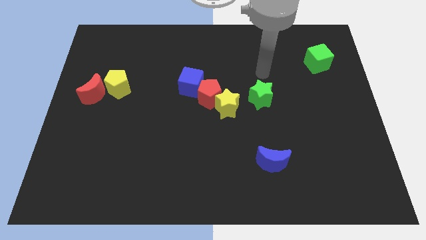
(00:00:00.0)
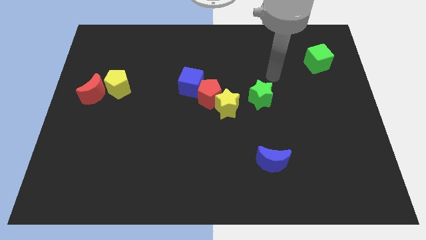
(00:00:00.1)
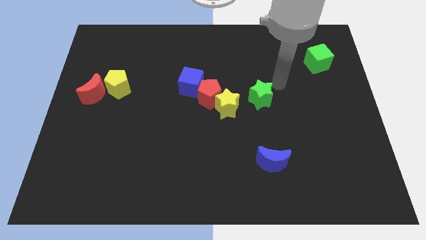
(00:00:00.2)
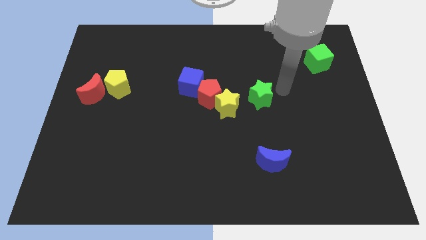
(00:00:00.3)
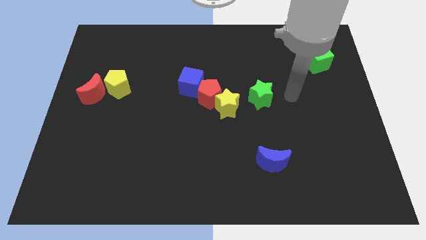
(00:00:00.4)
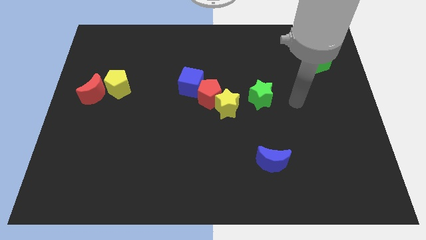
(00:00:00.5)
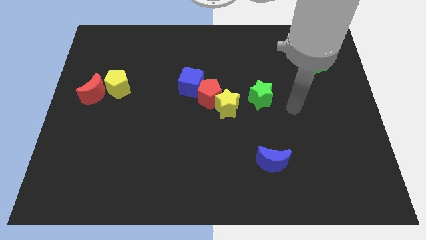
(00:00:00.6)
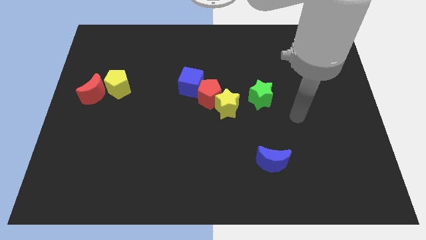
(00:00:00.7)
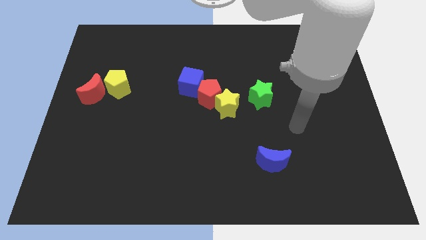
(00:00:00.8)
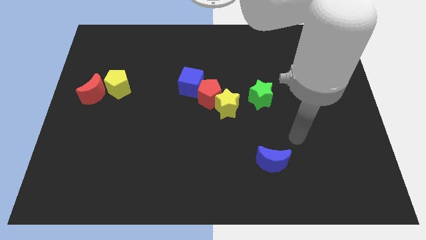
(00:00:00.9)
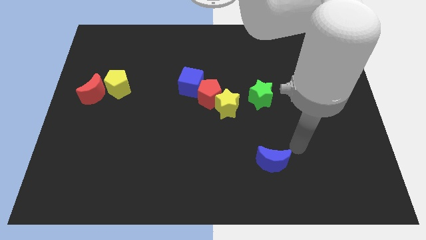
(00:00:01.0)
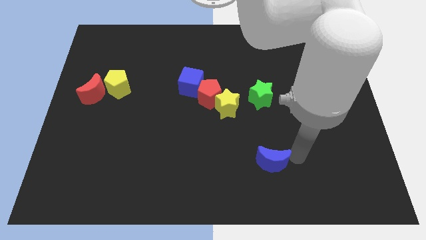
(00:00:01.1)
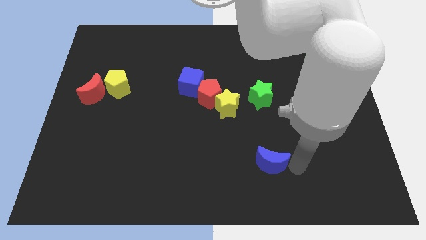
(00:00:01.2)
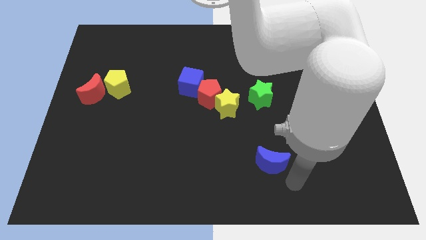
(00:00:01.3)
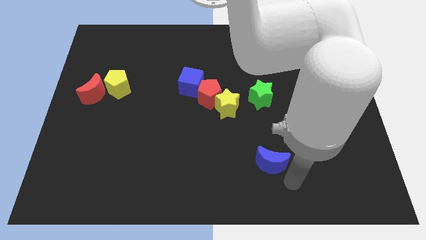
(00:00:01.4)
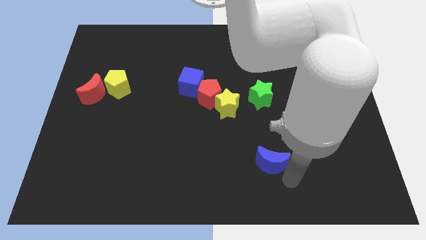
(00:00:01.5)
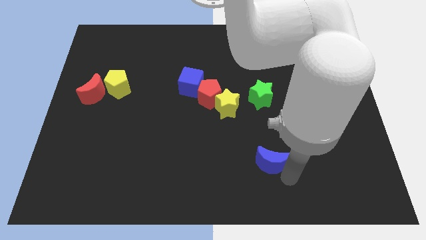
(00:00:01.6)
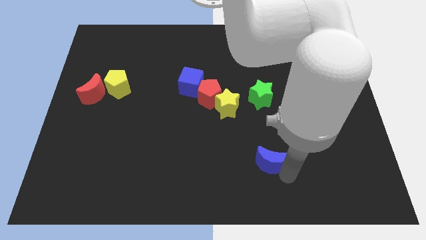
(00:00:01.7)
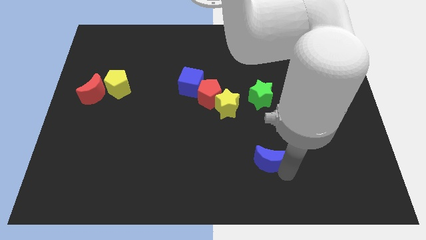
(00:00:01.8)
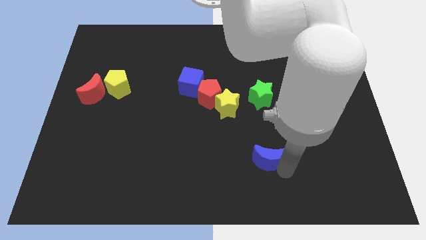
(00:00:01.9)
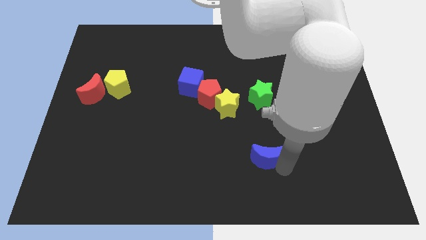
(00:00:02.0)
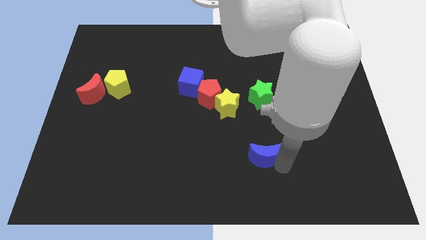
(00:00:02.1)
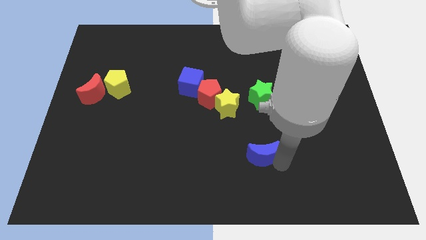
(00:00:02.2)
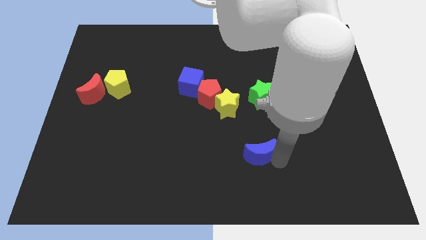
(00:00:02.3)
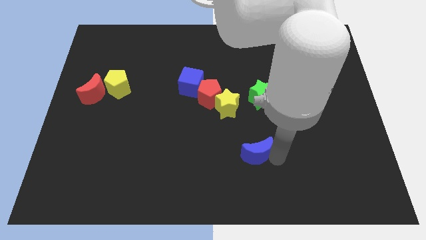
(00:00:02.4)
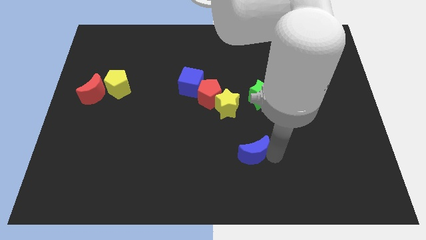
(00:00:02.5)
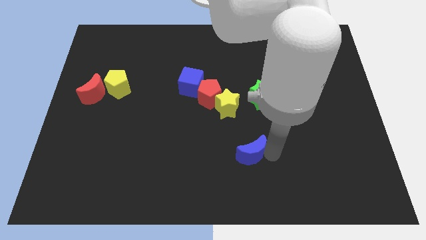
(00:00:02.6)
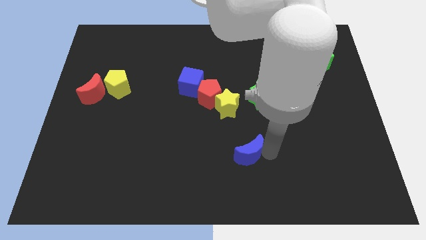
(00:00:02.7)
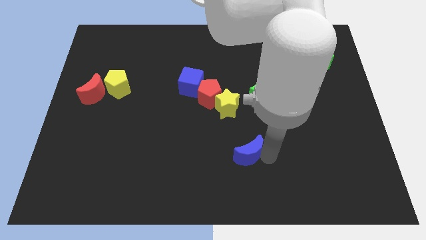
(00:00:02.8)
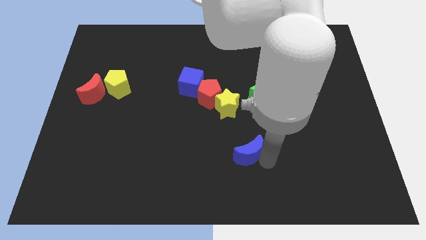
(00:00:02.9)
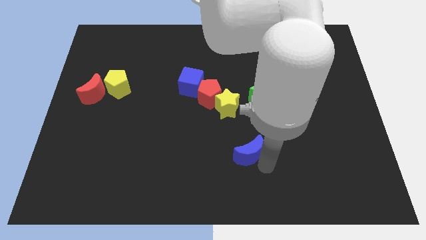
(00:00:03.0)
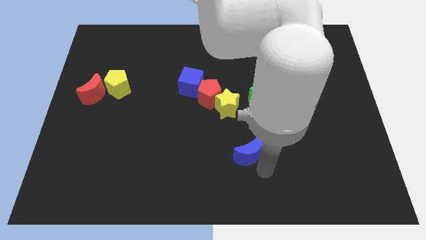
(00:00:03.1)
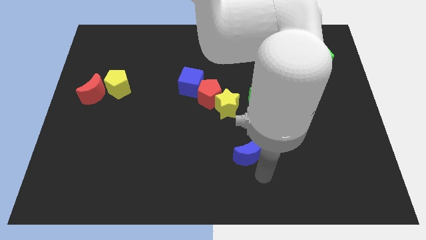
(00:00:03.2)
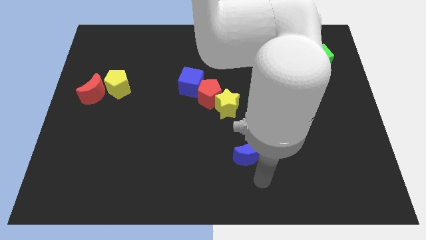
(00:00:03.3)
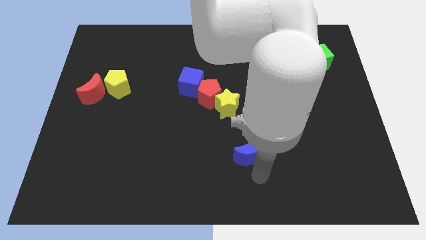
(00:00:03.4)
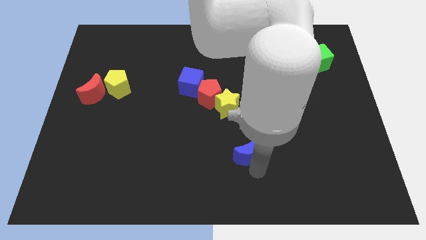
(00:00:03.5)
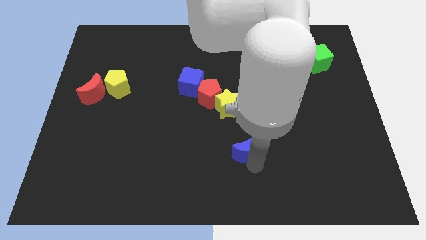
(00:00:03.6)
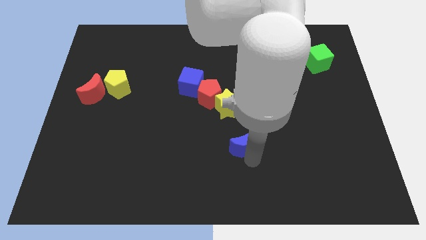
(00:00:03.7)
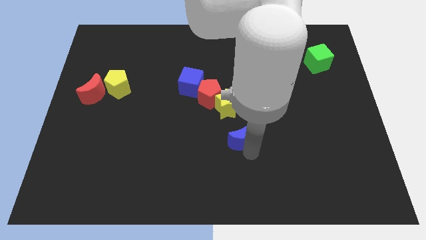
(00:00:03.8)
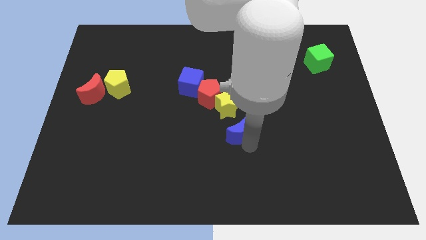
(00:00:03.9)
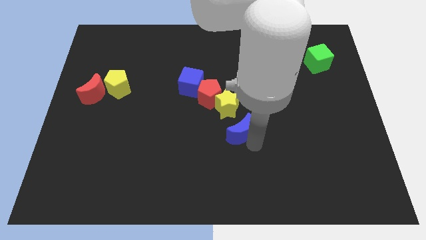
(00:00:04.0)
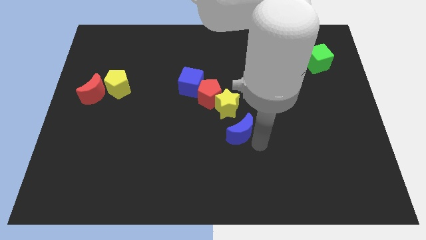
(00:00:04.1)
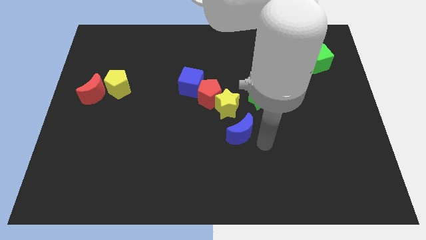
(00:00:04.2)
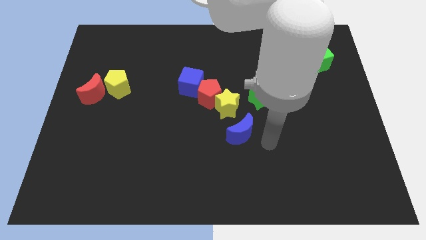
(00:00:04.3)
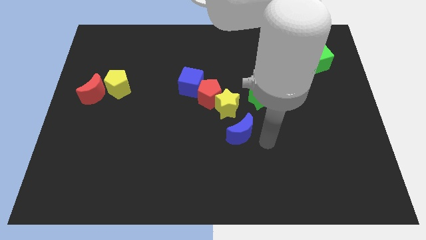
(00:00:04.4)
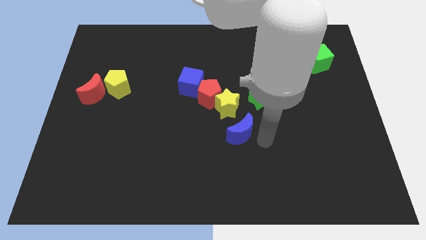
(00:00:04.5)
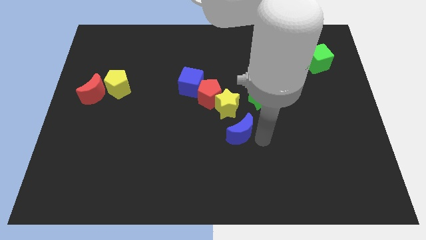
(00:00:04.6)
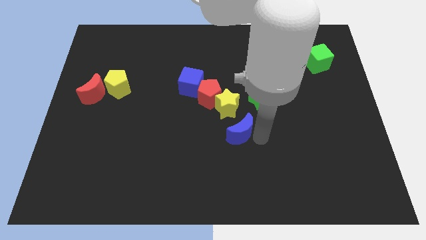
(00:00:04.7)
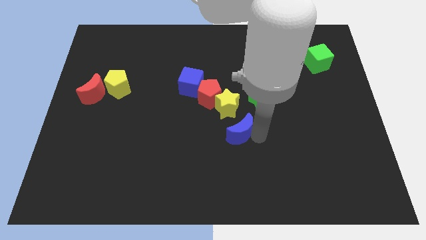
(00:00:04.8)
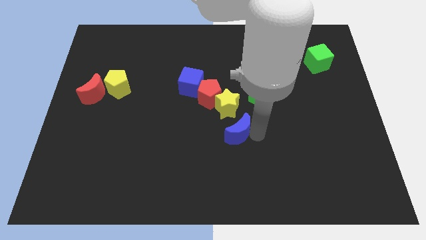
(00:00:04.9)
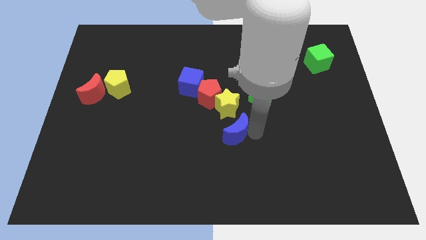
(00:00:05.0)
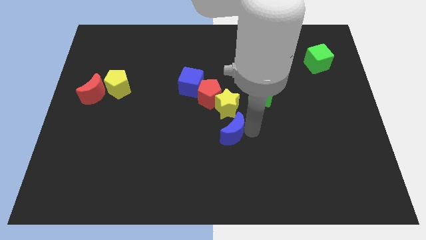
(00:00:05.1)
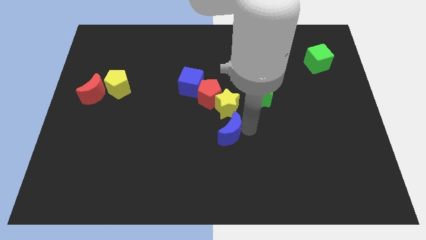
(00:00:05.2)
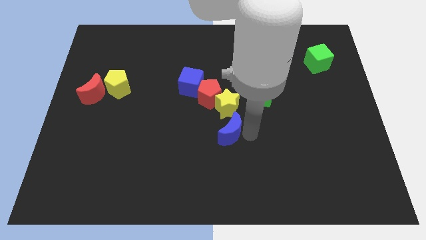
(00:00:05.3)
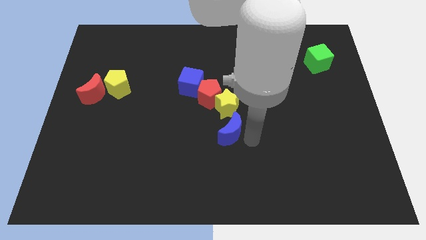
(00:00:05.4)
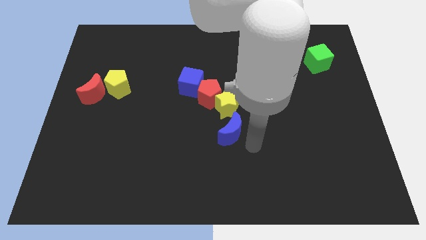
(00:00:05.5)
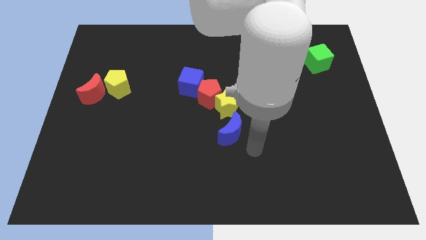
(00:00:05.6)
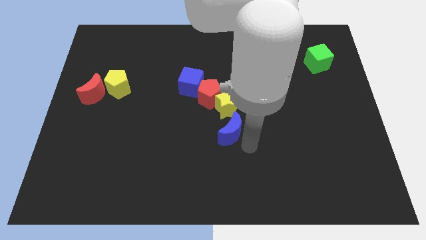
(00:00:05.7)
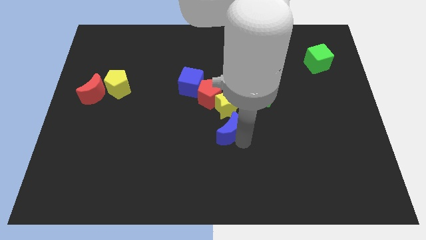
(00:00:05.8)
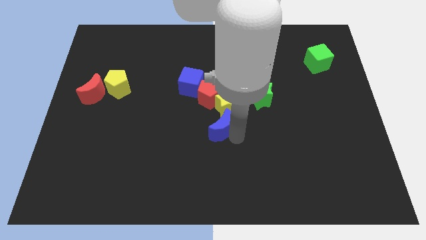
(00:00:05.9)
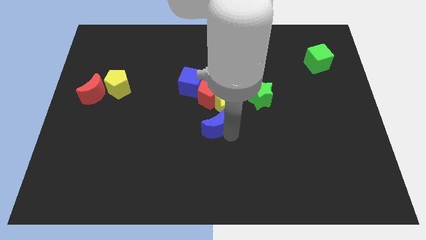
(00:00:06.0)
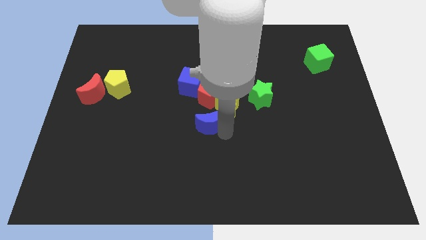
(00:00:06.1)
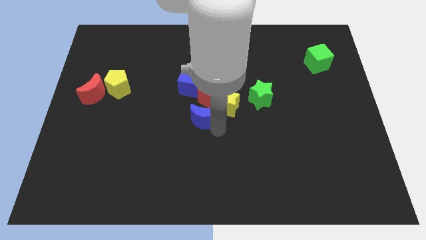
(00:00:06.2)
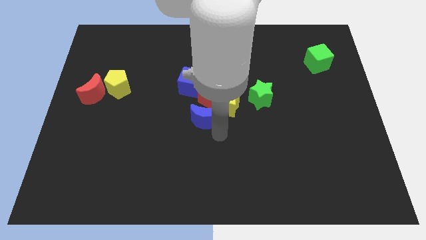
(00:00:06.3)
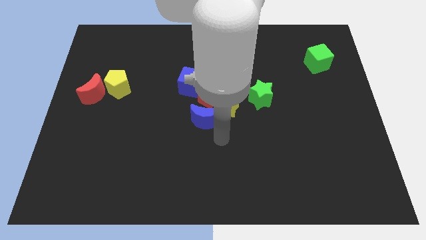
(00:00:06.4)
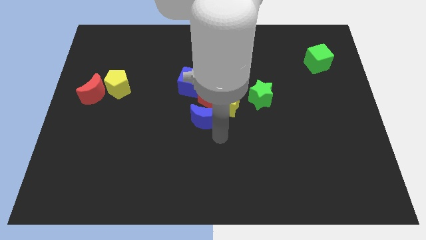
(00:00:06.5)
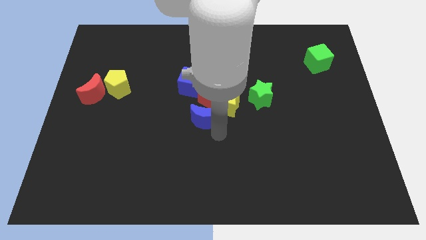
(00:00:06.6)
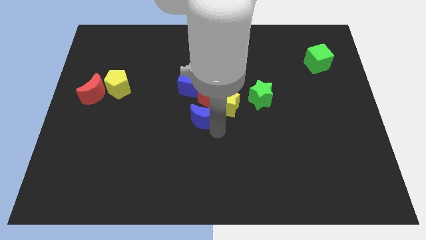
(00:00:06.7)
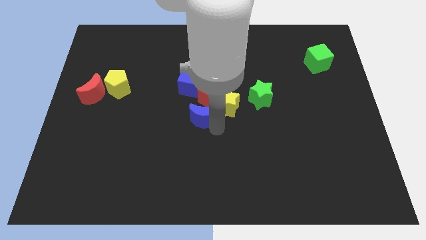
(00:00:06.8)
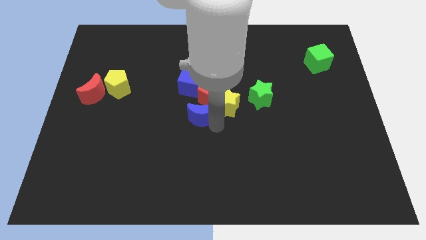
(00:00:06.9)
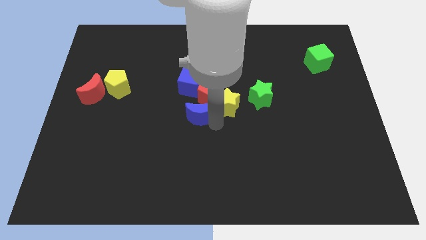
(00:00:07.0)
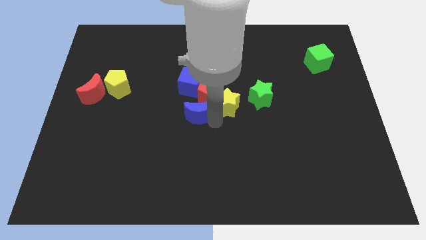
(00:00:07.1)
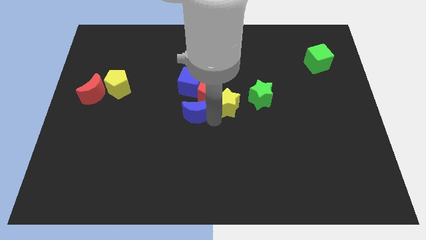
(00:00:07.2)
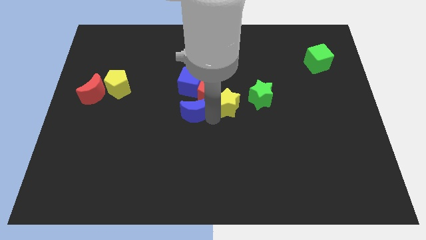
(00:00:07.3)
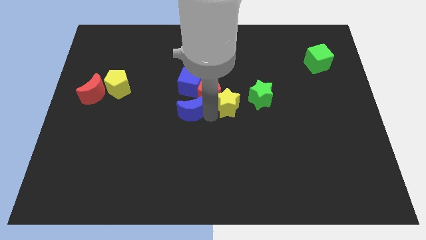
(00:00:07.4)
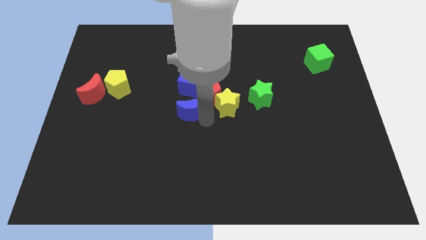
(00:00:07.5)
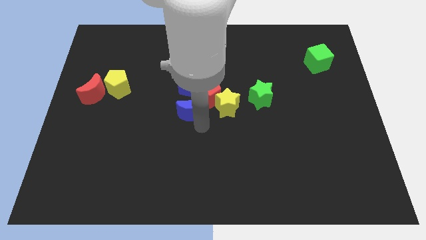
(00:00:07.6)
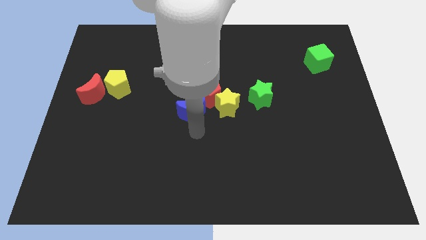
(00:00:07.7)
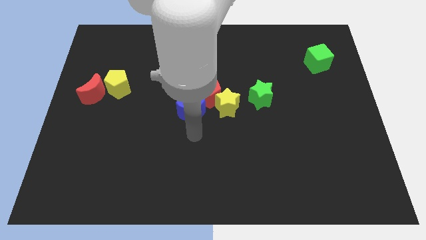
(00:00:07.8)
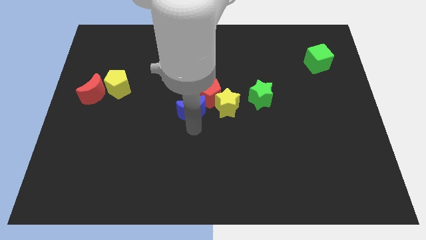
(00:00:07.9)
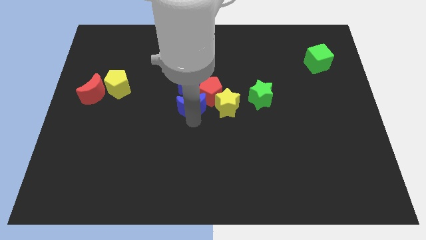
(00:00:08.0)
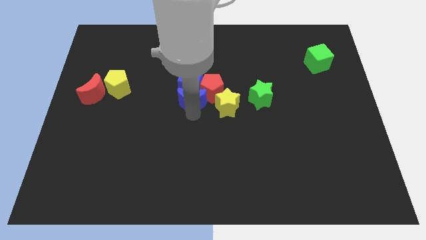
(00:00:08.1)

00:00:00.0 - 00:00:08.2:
slide the blue moon next to the blue cube
